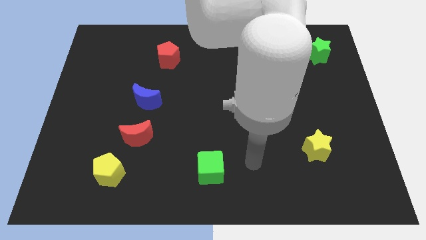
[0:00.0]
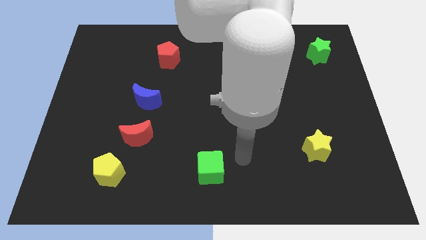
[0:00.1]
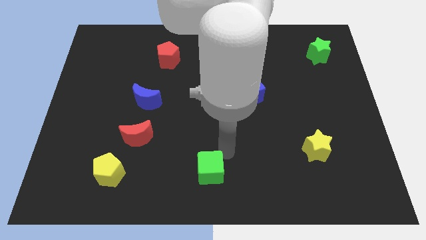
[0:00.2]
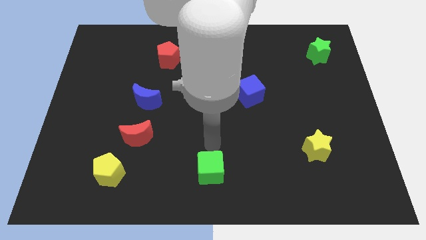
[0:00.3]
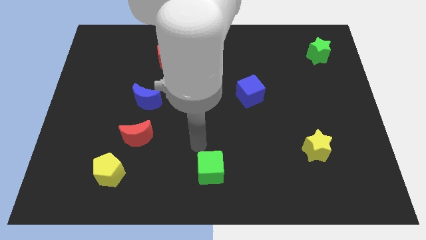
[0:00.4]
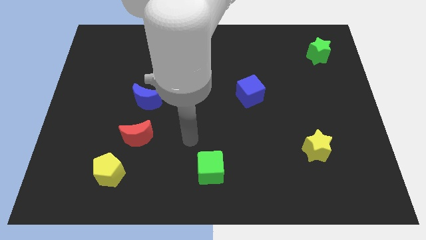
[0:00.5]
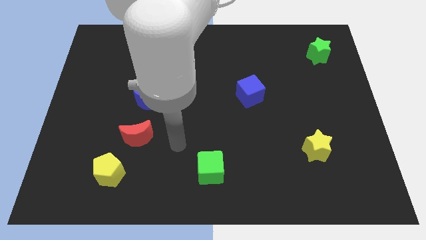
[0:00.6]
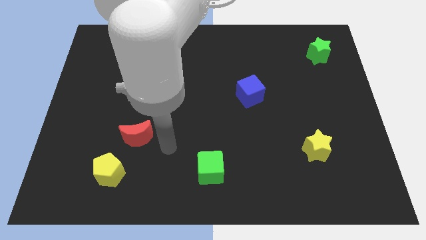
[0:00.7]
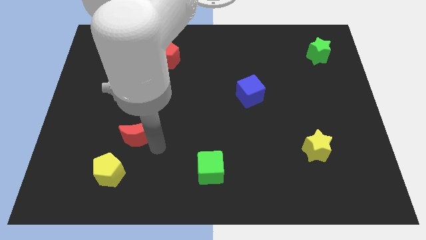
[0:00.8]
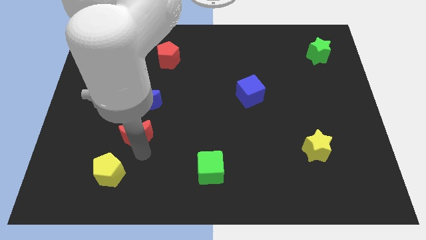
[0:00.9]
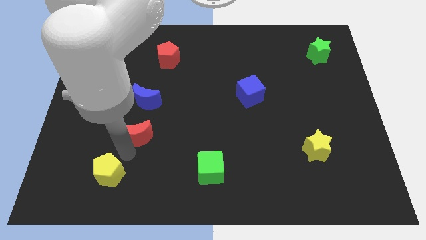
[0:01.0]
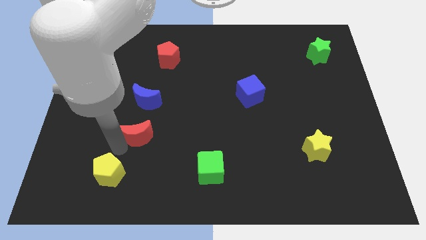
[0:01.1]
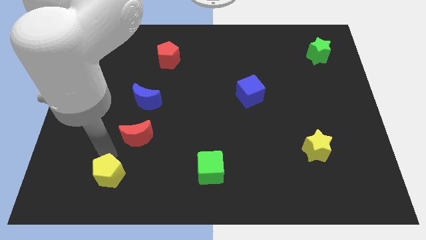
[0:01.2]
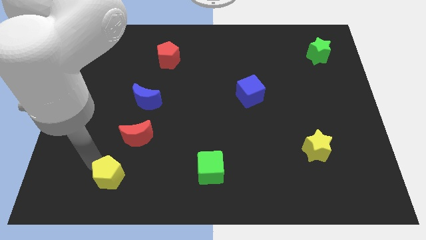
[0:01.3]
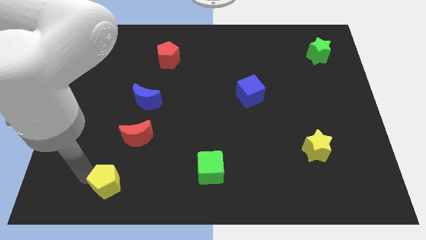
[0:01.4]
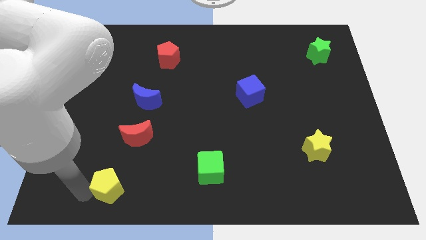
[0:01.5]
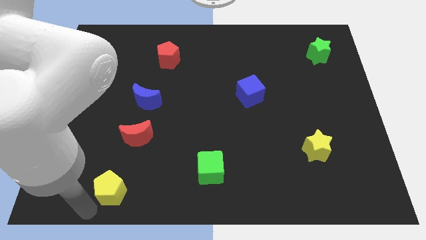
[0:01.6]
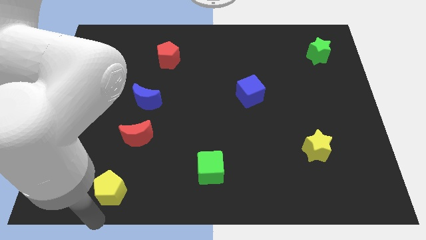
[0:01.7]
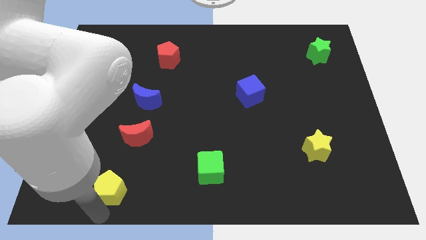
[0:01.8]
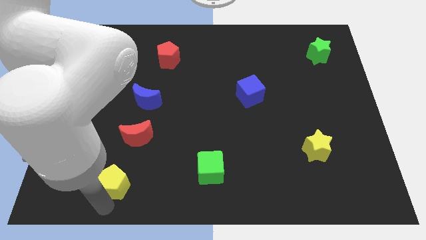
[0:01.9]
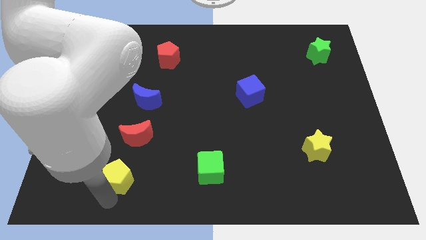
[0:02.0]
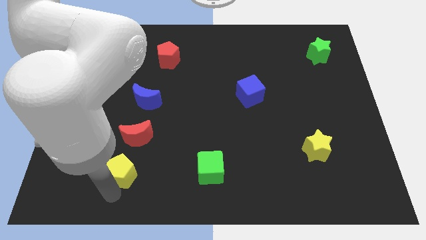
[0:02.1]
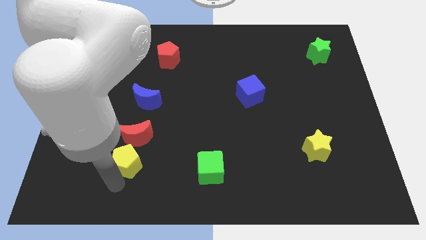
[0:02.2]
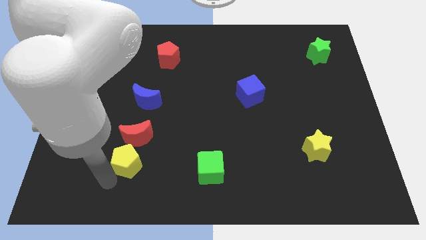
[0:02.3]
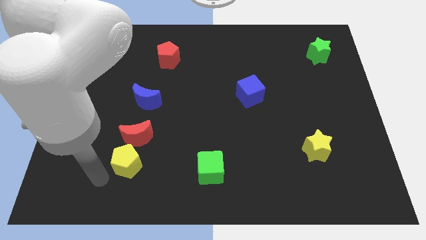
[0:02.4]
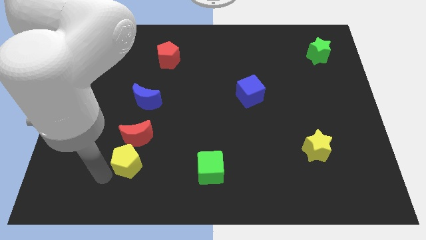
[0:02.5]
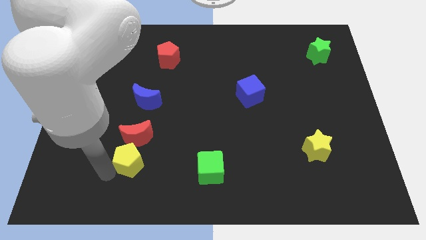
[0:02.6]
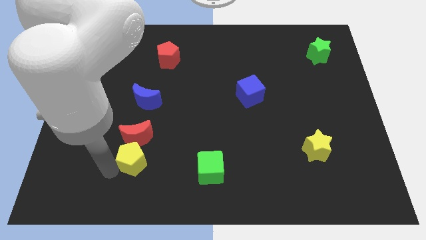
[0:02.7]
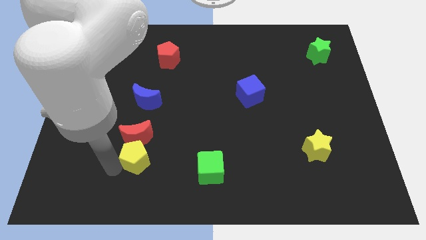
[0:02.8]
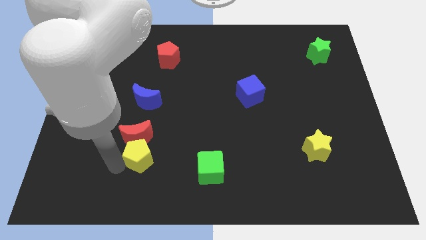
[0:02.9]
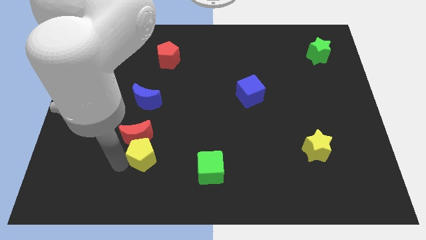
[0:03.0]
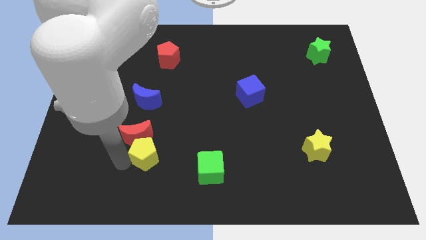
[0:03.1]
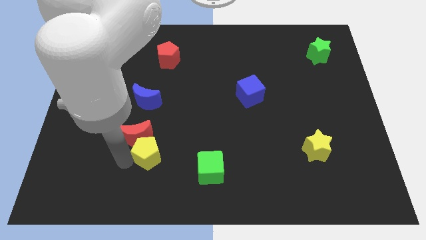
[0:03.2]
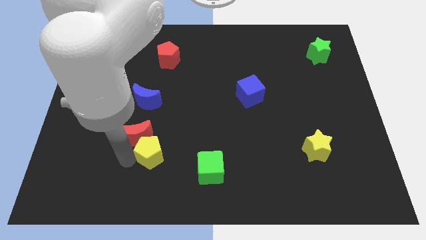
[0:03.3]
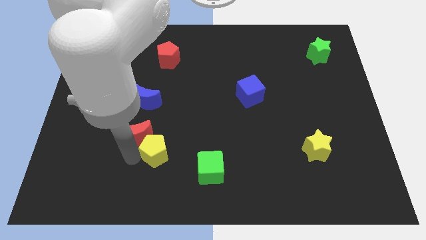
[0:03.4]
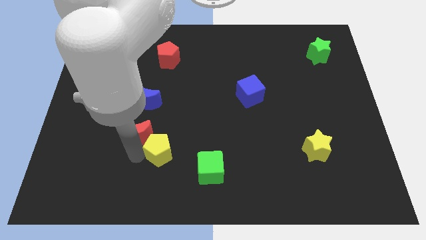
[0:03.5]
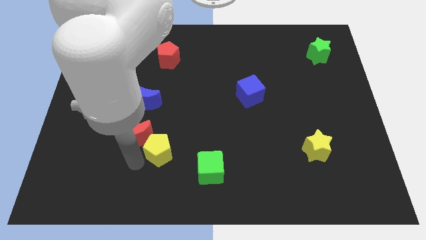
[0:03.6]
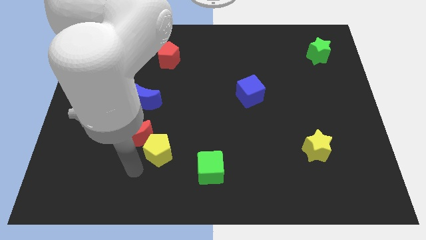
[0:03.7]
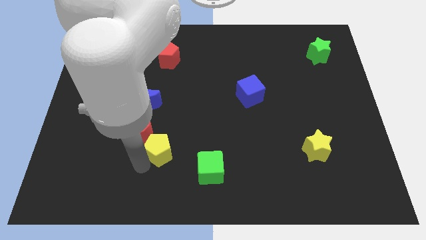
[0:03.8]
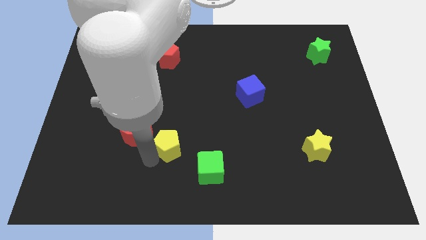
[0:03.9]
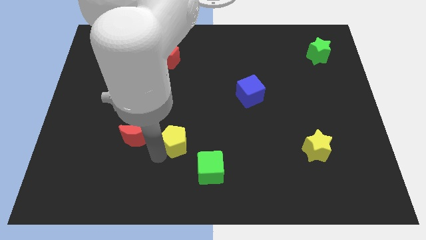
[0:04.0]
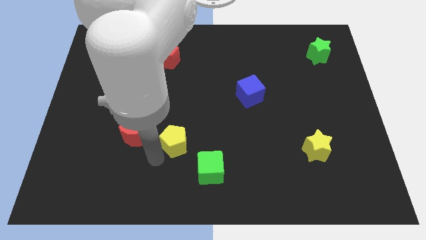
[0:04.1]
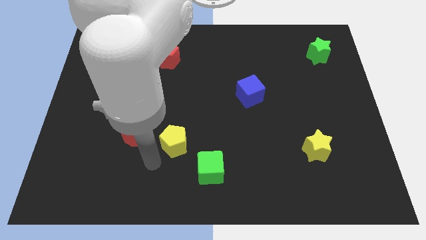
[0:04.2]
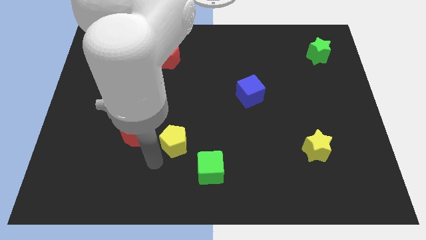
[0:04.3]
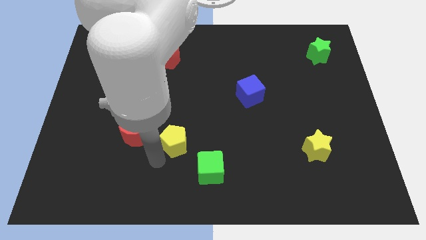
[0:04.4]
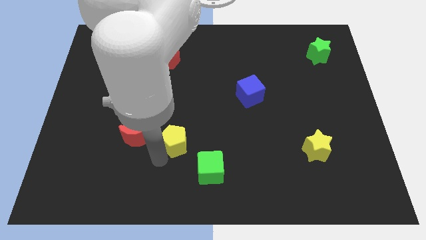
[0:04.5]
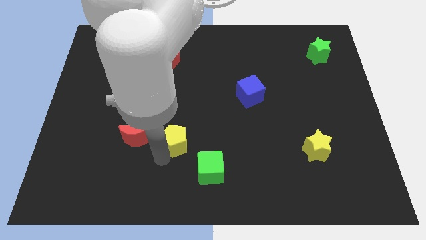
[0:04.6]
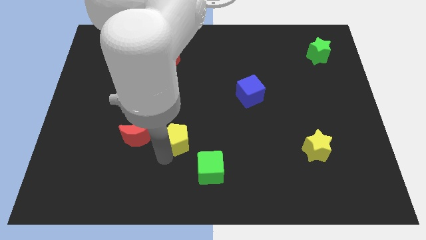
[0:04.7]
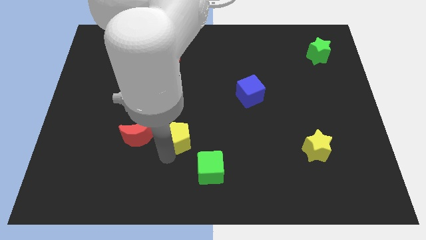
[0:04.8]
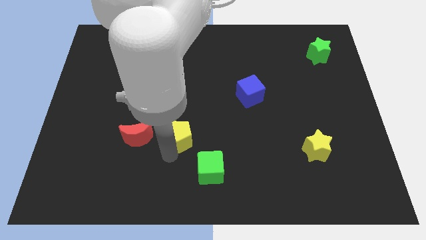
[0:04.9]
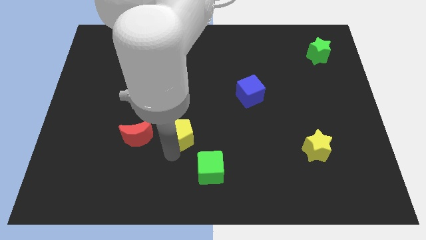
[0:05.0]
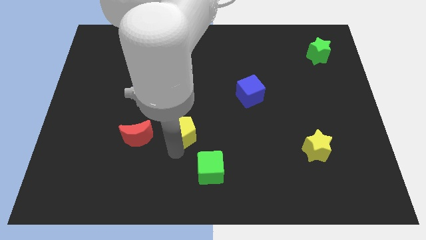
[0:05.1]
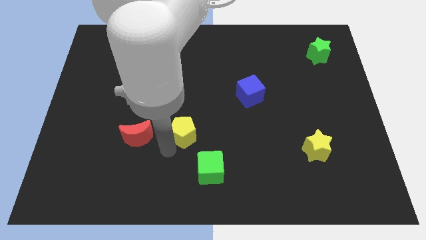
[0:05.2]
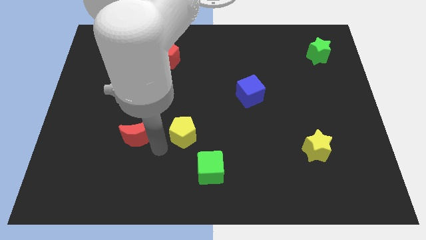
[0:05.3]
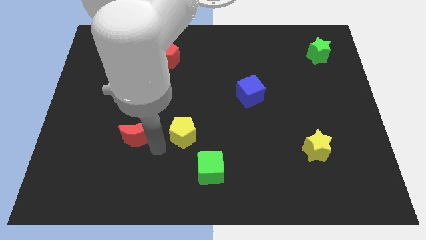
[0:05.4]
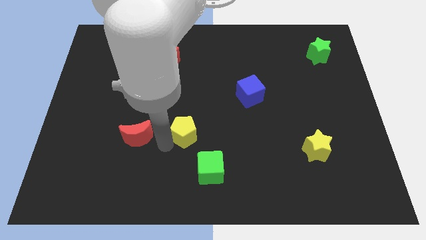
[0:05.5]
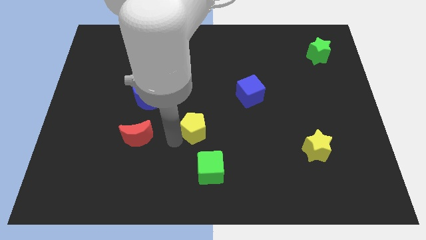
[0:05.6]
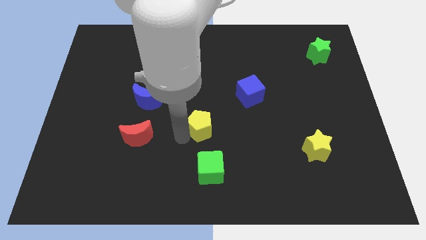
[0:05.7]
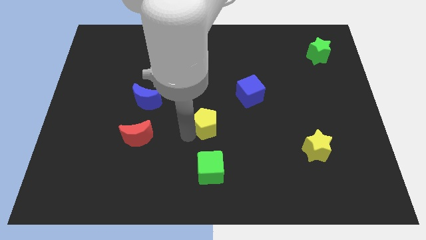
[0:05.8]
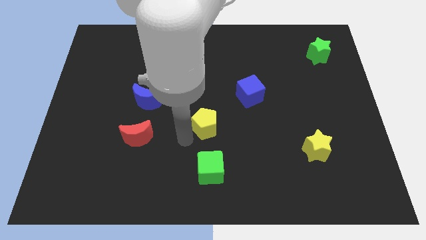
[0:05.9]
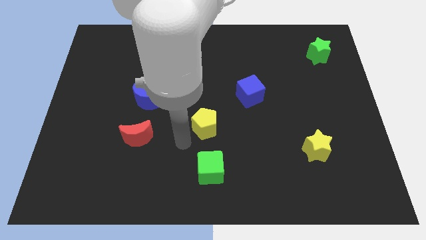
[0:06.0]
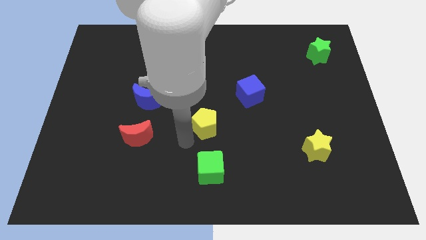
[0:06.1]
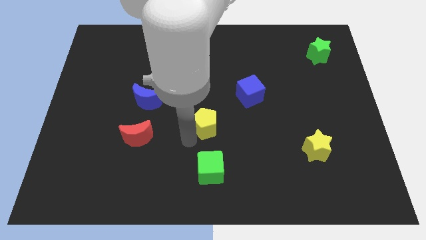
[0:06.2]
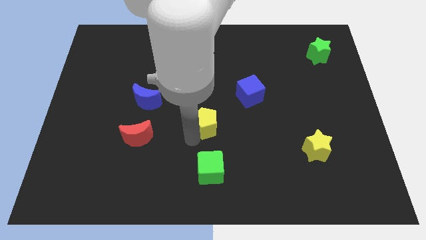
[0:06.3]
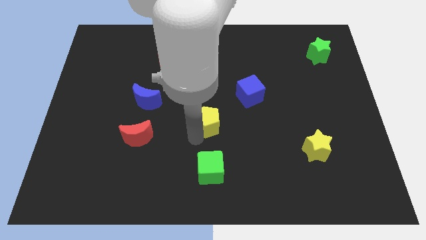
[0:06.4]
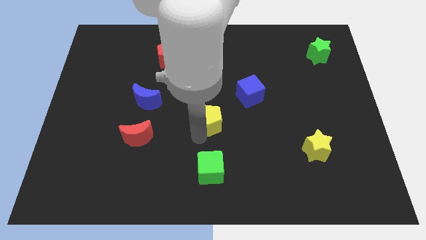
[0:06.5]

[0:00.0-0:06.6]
push the yellow pentagon to the bottom left of the blue cube

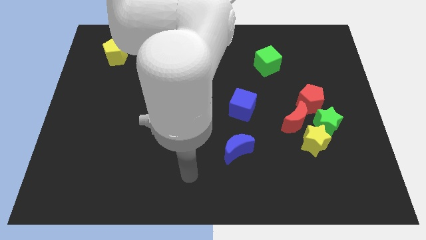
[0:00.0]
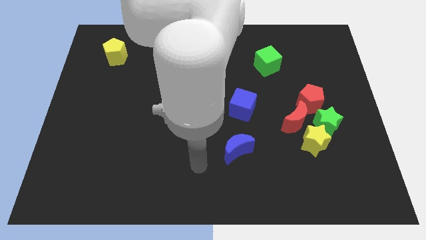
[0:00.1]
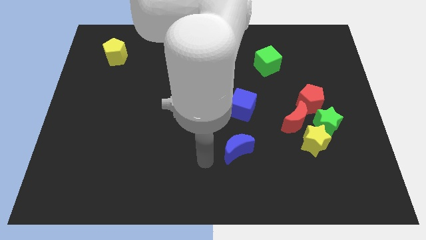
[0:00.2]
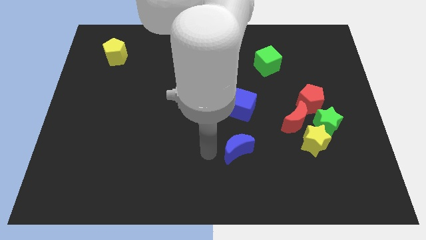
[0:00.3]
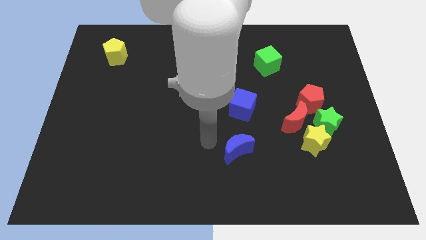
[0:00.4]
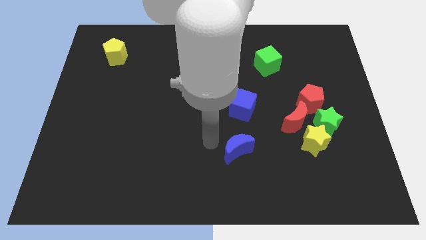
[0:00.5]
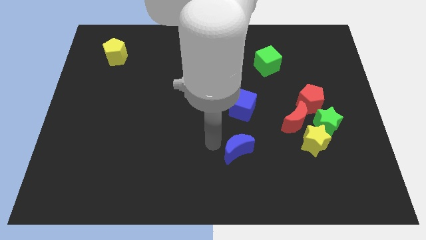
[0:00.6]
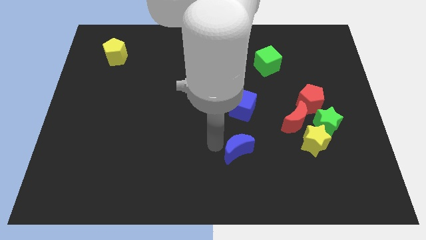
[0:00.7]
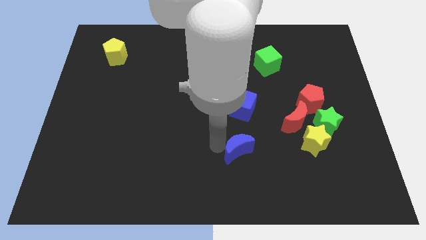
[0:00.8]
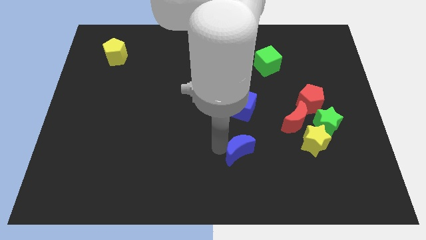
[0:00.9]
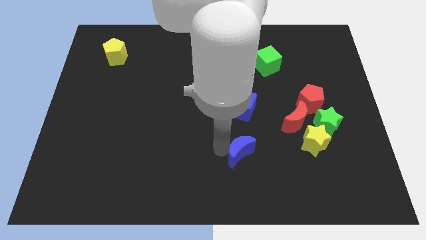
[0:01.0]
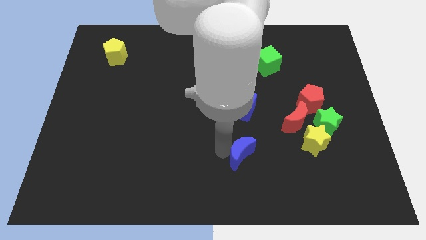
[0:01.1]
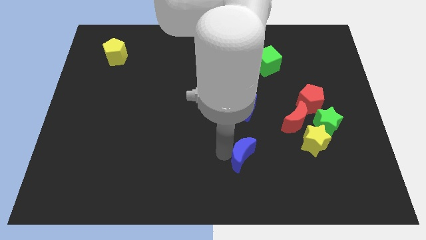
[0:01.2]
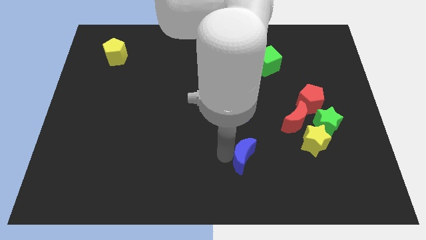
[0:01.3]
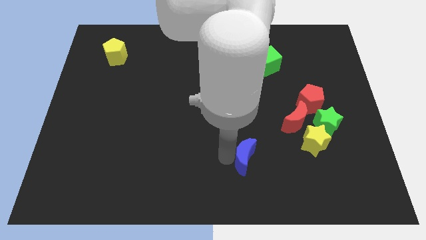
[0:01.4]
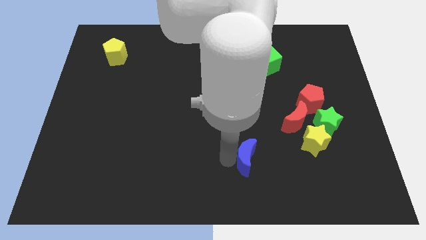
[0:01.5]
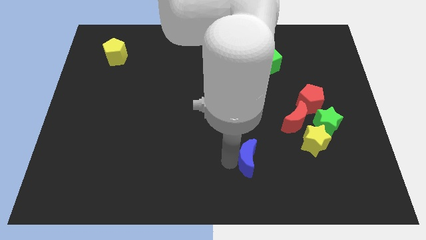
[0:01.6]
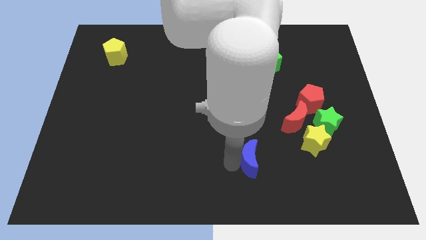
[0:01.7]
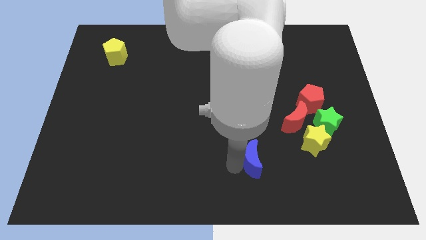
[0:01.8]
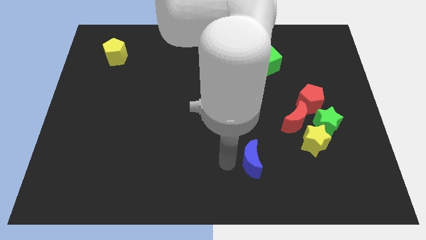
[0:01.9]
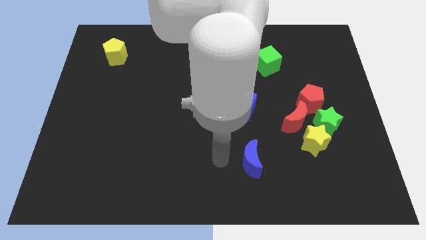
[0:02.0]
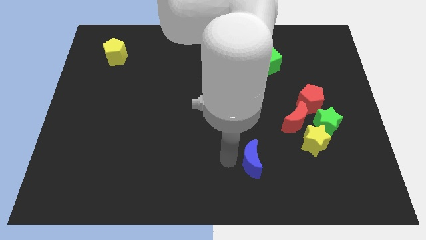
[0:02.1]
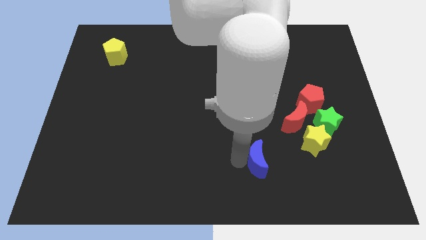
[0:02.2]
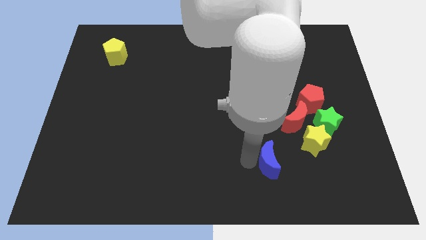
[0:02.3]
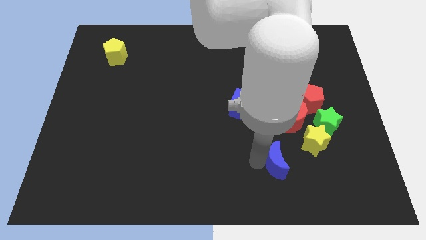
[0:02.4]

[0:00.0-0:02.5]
slide the blue moon to the bottom left of the yellow star
